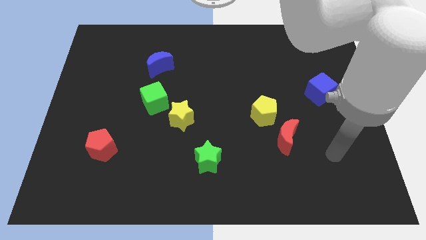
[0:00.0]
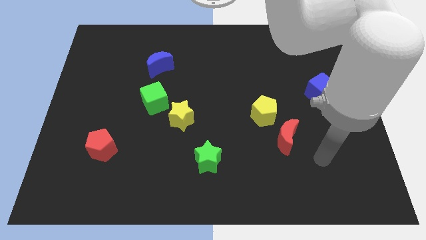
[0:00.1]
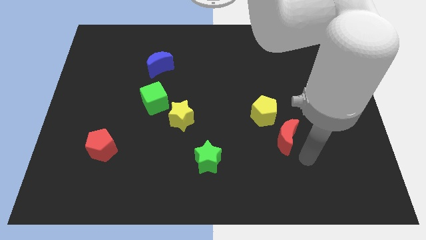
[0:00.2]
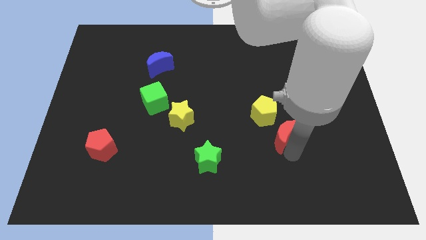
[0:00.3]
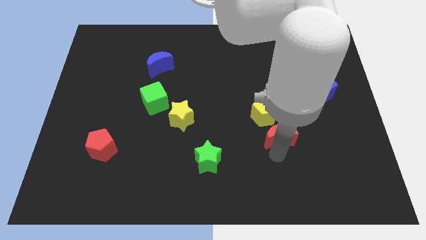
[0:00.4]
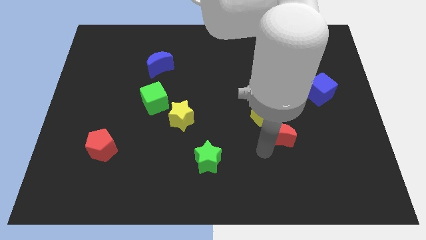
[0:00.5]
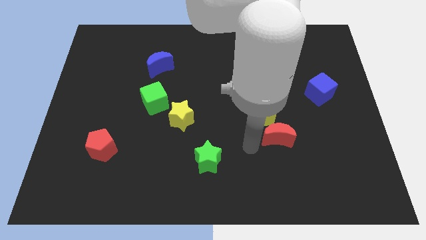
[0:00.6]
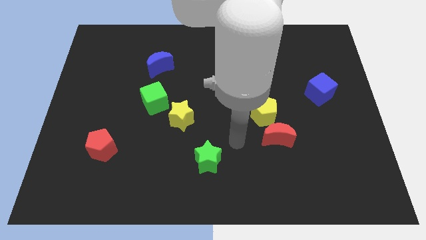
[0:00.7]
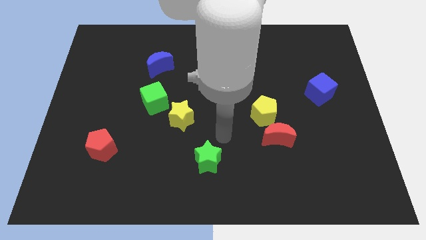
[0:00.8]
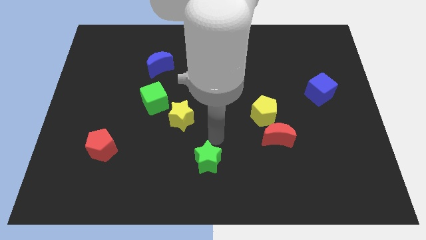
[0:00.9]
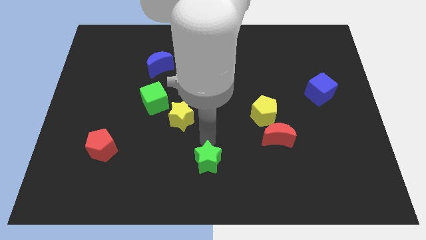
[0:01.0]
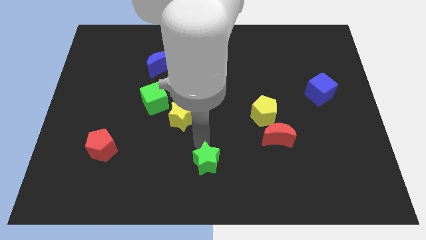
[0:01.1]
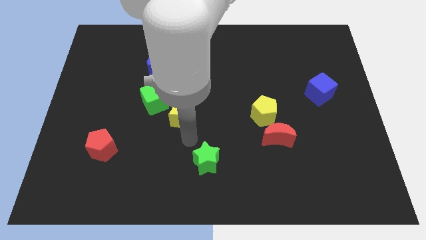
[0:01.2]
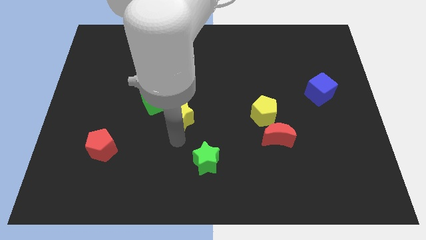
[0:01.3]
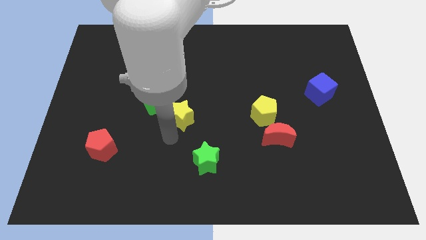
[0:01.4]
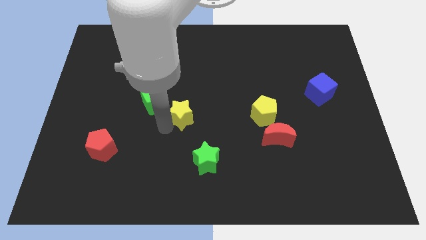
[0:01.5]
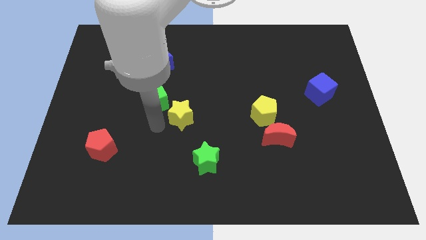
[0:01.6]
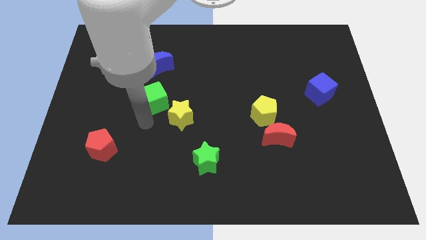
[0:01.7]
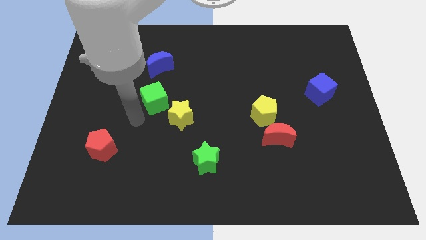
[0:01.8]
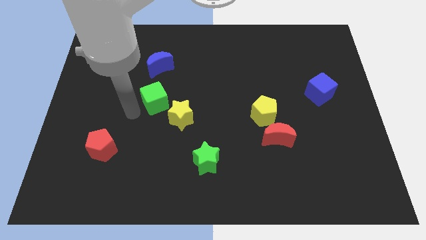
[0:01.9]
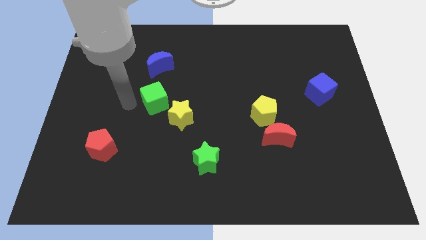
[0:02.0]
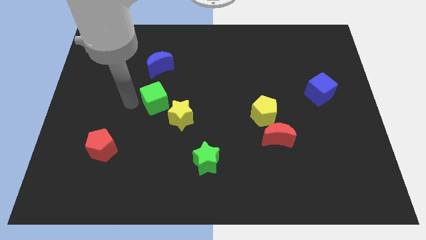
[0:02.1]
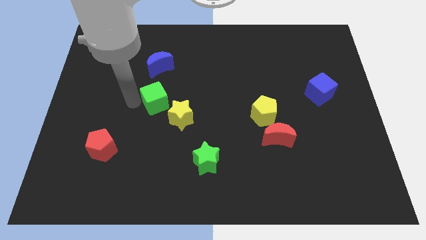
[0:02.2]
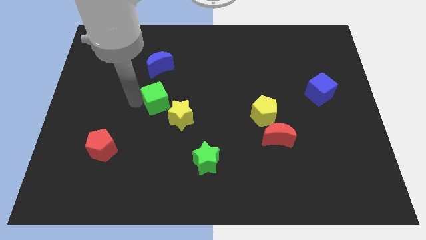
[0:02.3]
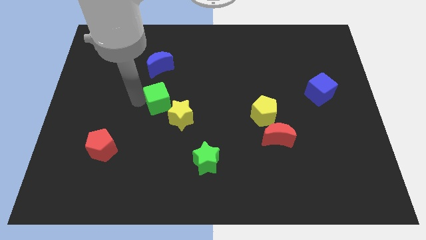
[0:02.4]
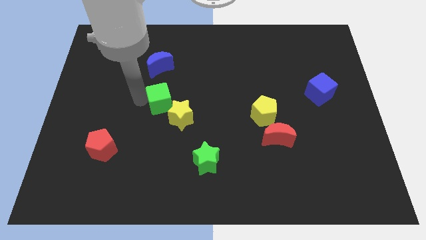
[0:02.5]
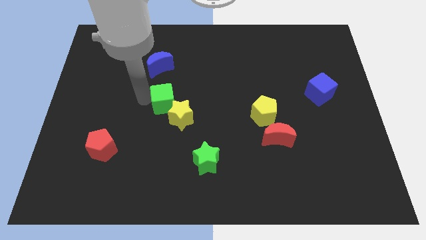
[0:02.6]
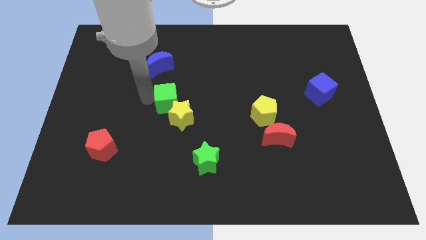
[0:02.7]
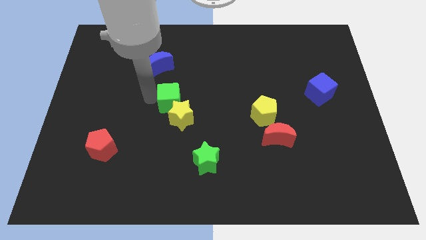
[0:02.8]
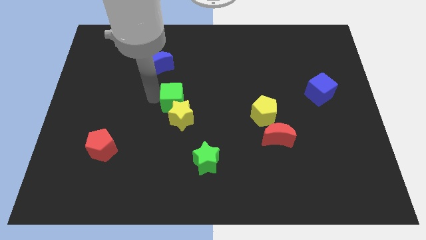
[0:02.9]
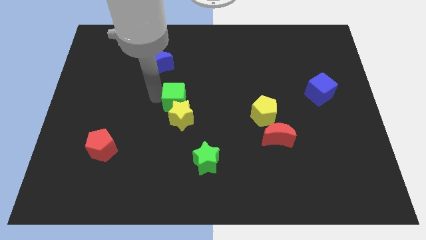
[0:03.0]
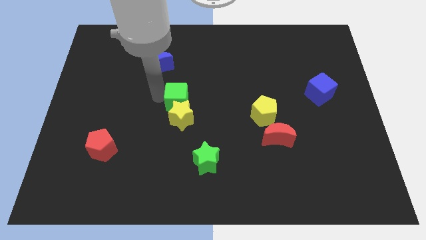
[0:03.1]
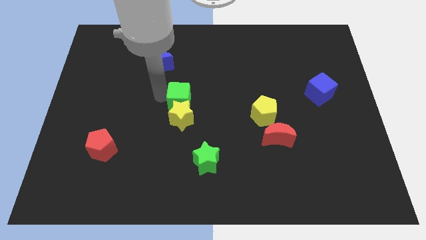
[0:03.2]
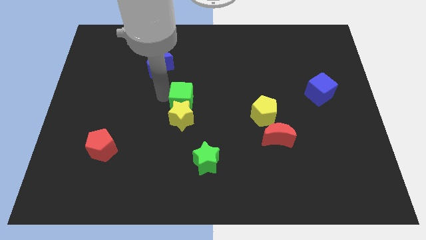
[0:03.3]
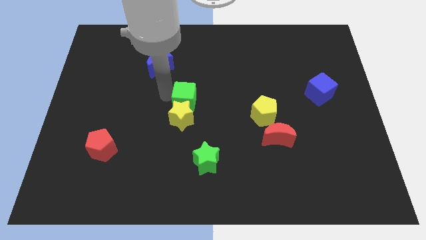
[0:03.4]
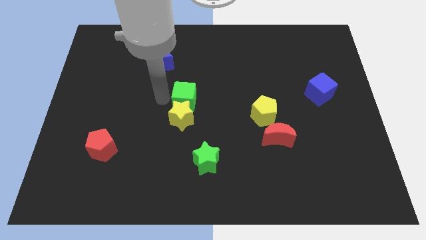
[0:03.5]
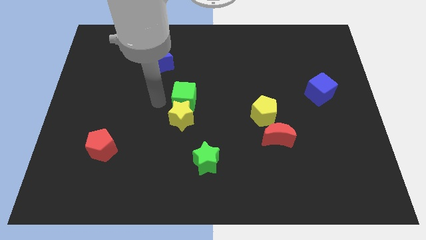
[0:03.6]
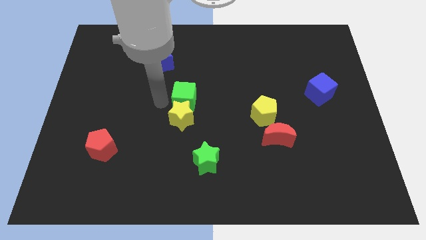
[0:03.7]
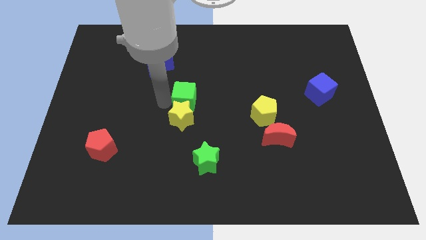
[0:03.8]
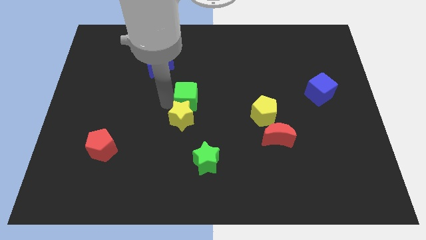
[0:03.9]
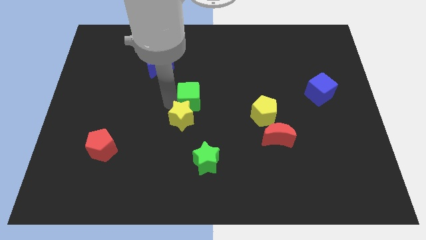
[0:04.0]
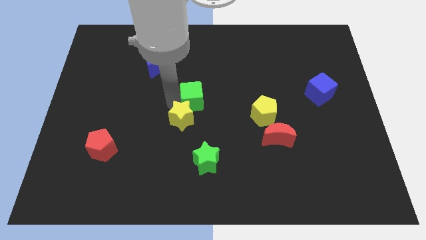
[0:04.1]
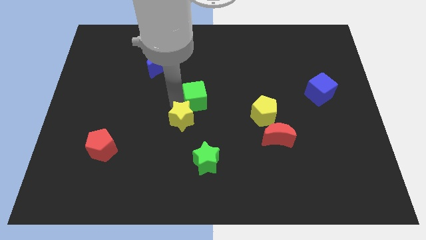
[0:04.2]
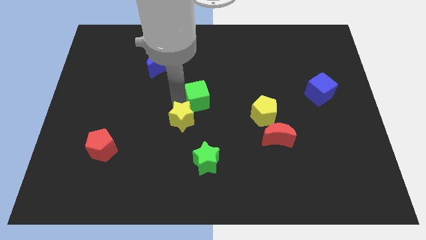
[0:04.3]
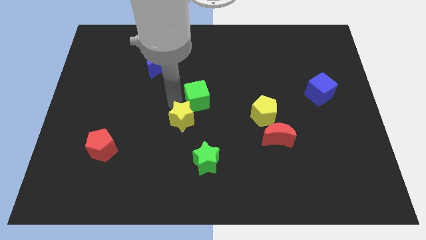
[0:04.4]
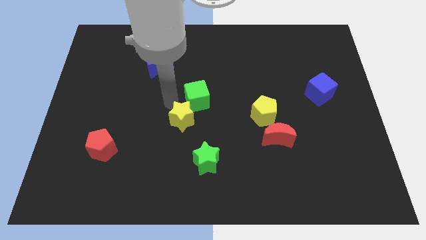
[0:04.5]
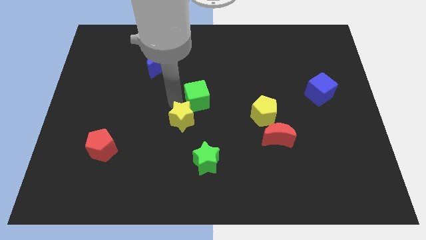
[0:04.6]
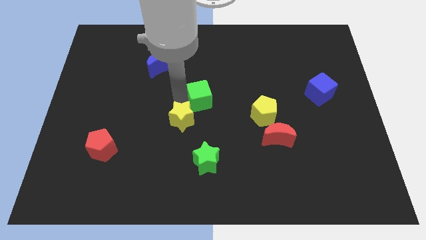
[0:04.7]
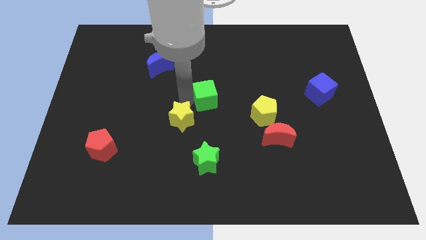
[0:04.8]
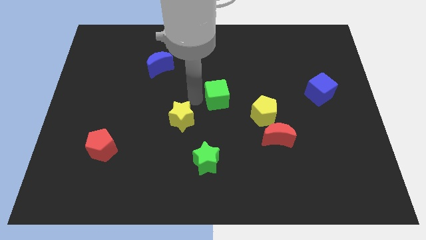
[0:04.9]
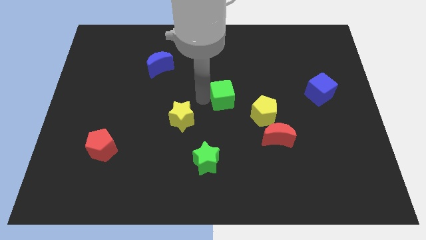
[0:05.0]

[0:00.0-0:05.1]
push the green cube to the top left of the yellow pentagon

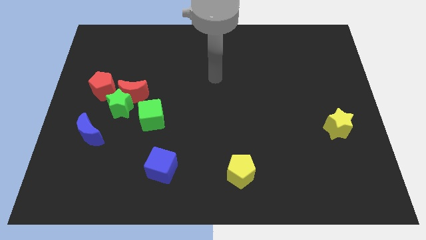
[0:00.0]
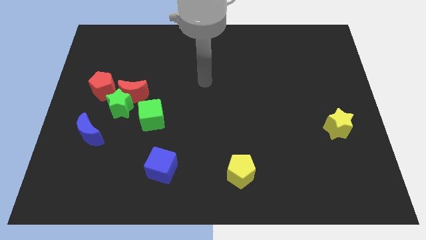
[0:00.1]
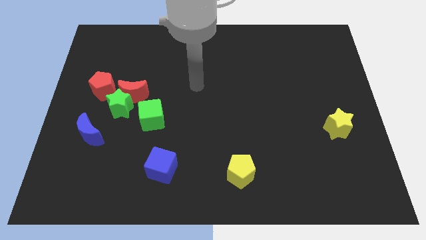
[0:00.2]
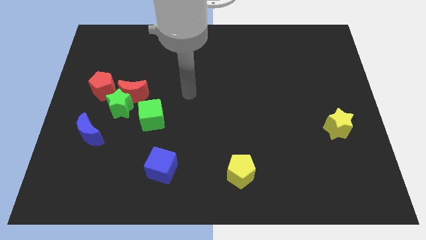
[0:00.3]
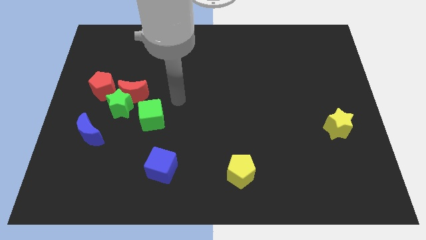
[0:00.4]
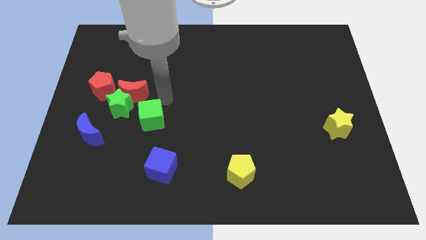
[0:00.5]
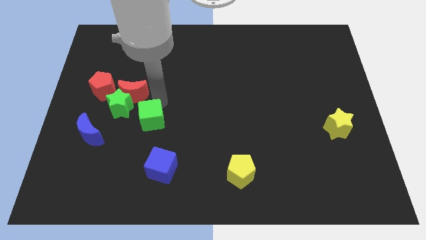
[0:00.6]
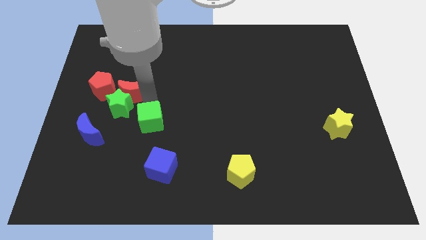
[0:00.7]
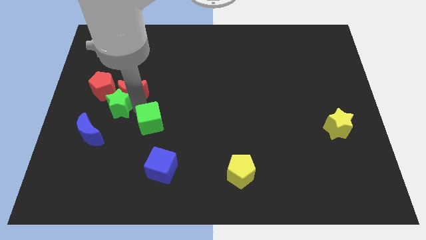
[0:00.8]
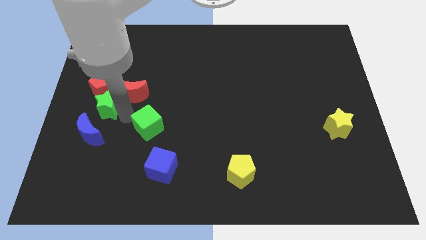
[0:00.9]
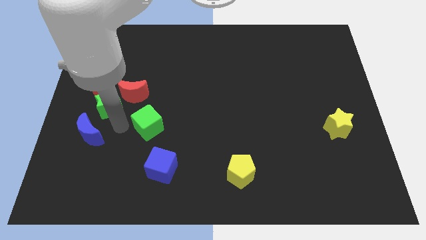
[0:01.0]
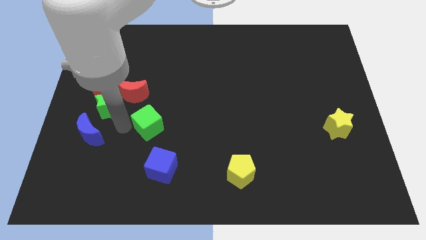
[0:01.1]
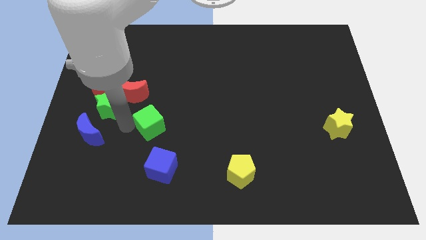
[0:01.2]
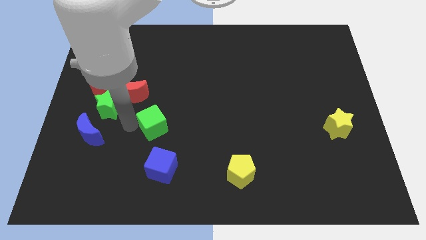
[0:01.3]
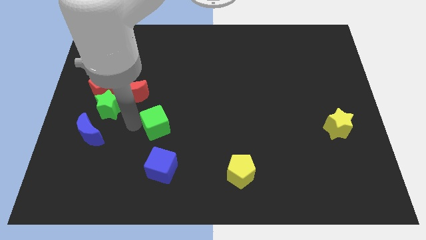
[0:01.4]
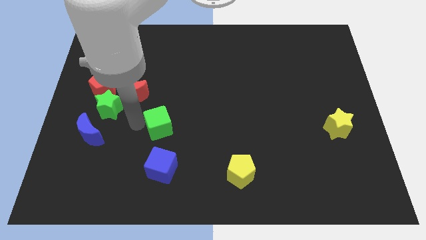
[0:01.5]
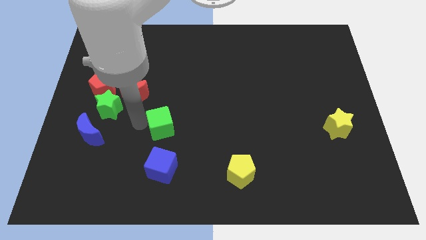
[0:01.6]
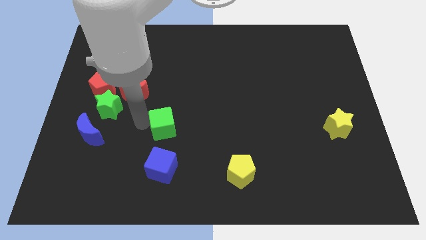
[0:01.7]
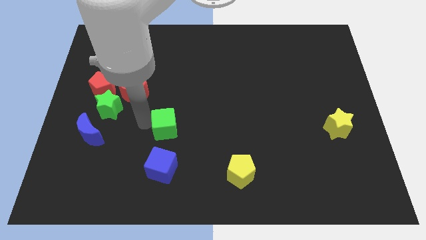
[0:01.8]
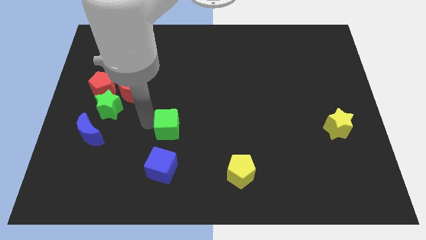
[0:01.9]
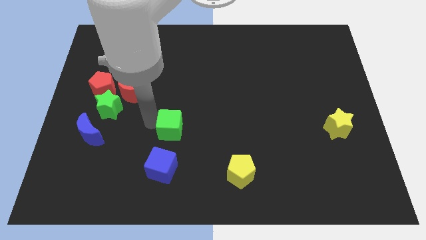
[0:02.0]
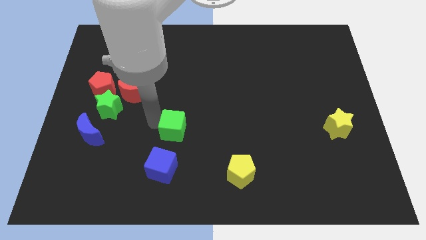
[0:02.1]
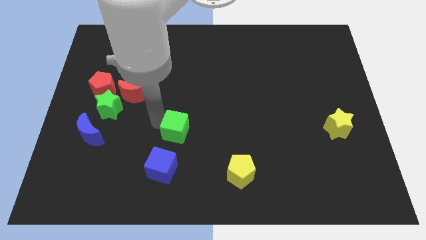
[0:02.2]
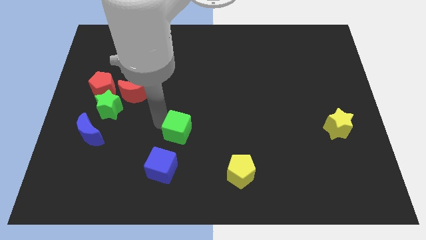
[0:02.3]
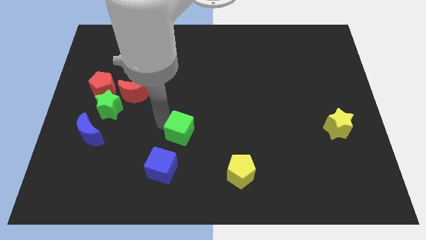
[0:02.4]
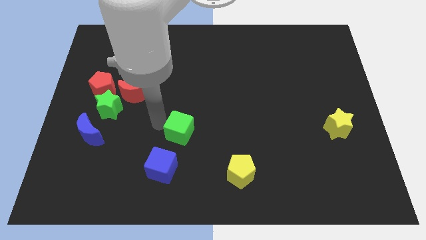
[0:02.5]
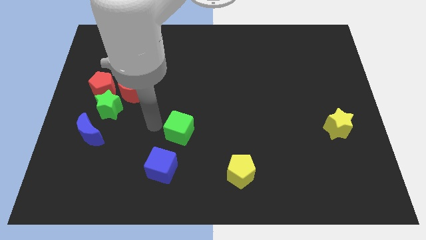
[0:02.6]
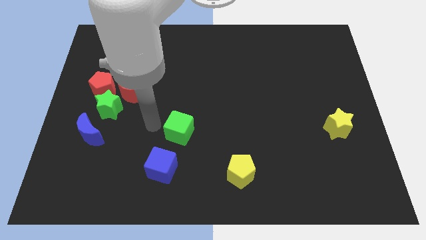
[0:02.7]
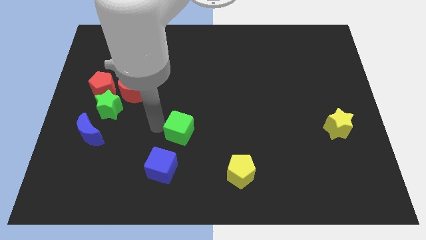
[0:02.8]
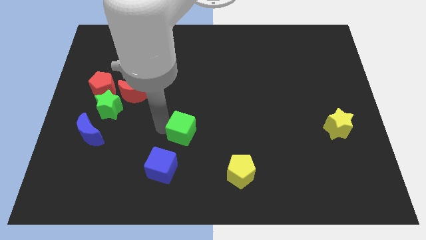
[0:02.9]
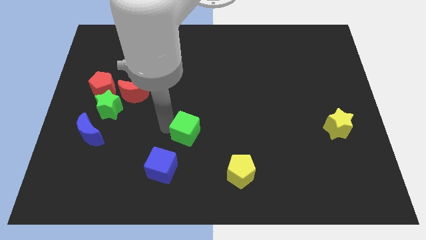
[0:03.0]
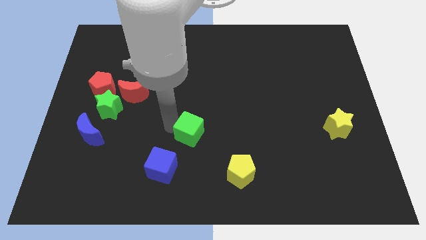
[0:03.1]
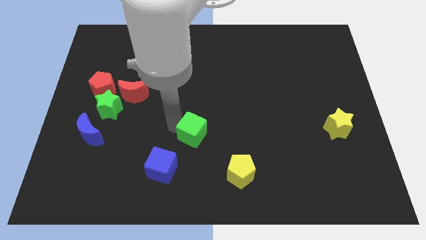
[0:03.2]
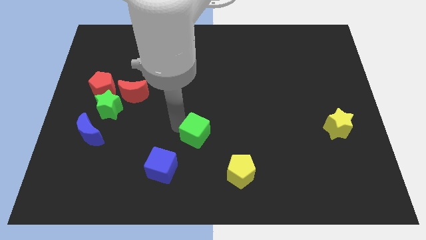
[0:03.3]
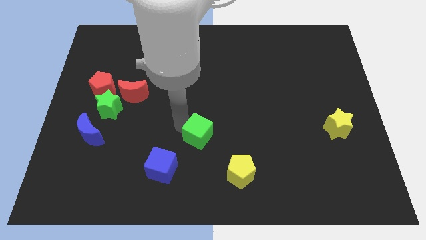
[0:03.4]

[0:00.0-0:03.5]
put the green cube to the top left side of the yellow pentagon
